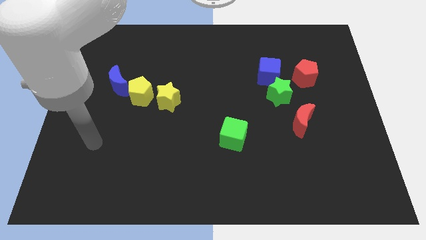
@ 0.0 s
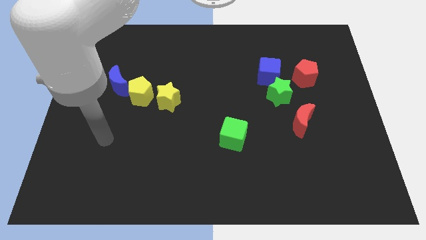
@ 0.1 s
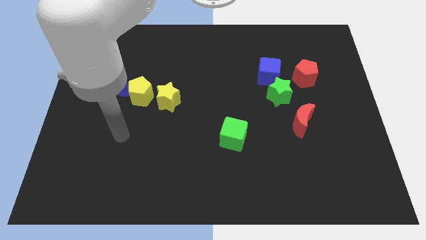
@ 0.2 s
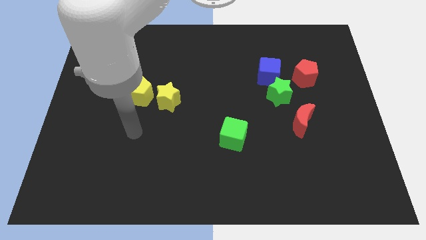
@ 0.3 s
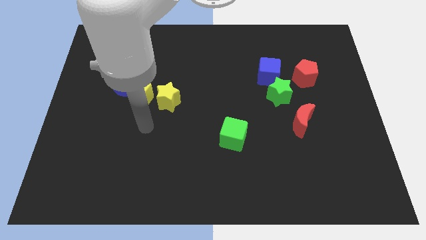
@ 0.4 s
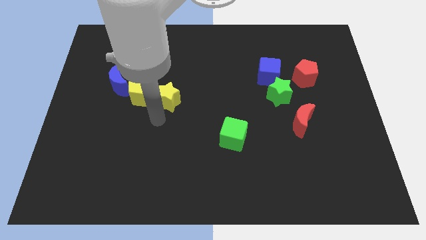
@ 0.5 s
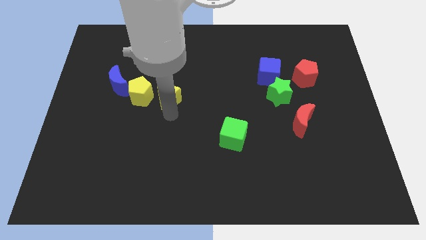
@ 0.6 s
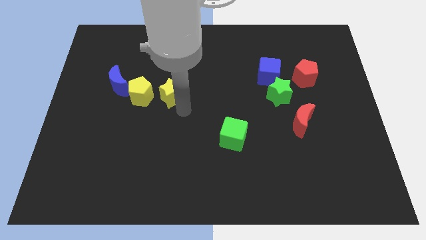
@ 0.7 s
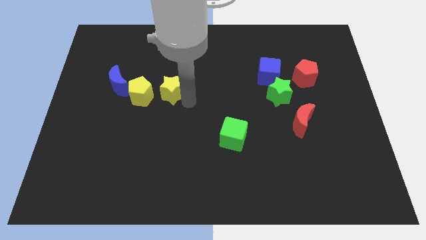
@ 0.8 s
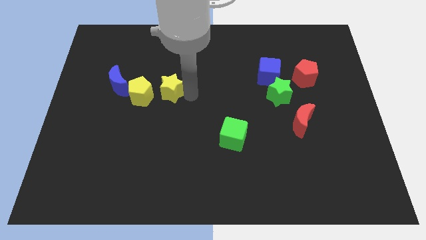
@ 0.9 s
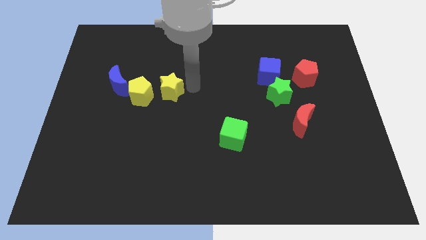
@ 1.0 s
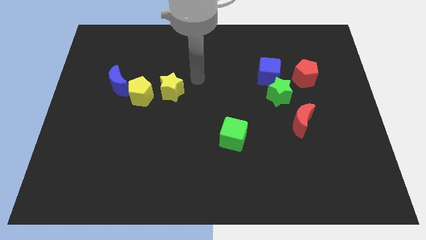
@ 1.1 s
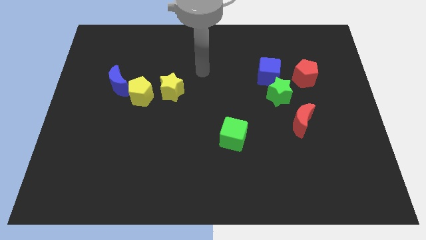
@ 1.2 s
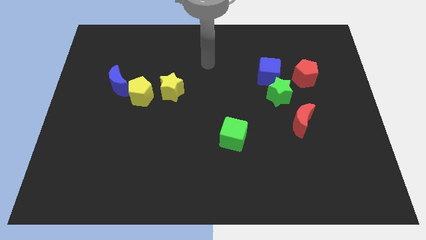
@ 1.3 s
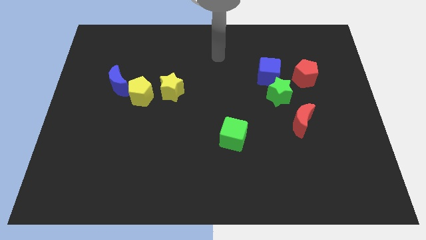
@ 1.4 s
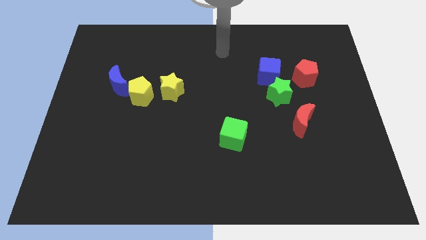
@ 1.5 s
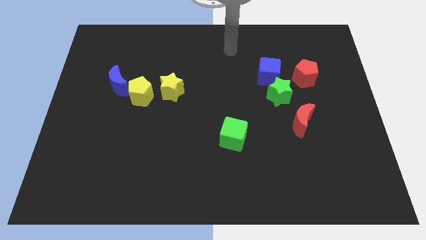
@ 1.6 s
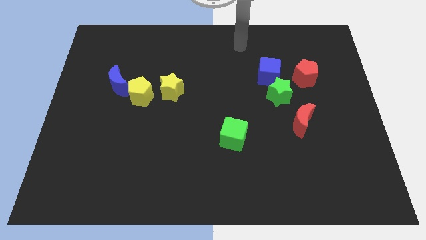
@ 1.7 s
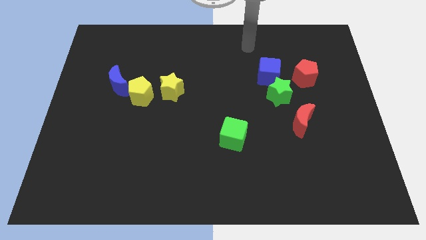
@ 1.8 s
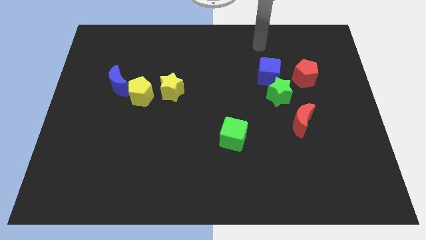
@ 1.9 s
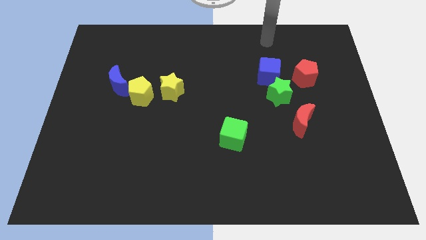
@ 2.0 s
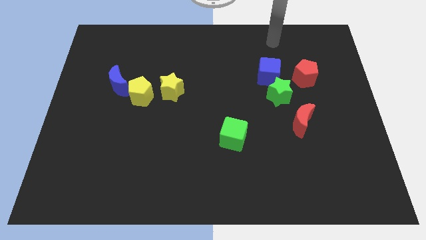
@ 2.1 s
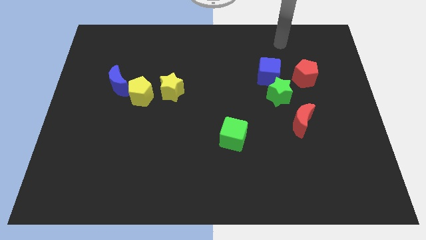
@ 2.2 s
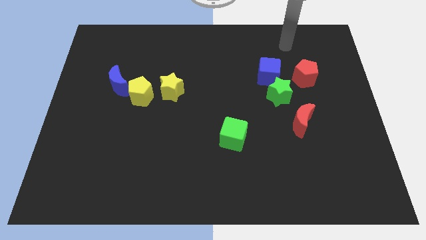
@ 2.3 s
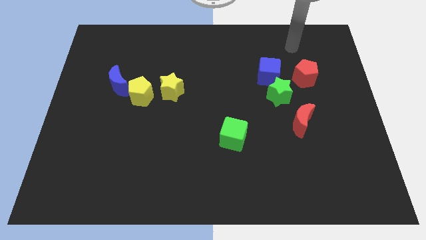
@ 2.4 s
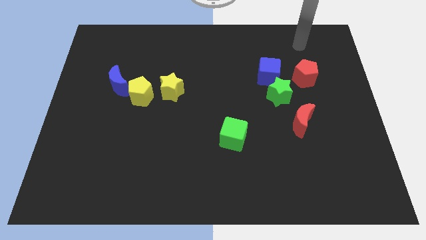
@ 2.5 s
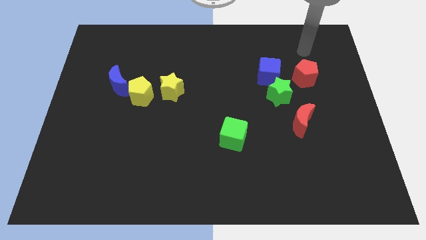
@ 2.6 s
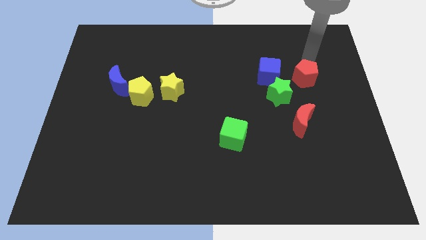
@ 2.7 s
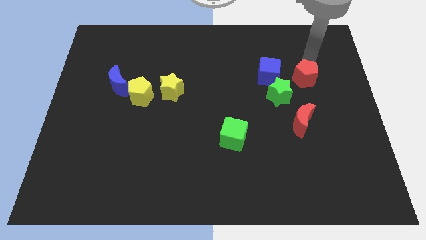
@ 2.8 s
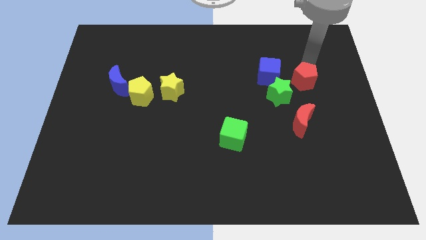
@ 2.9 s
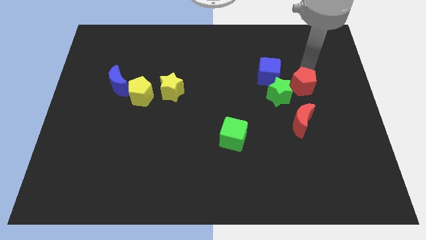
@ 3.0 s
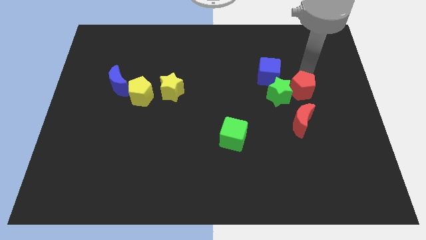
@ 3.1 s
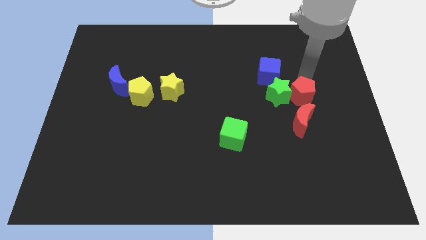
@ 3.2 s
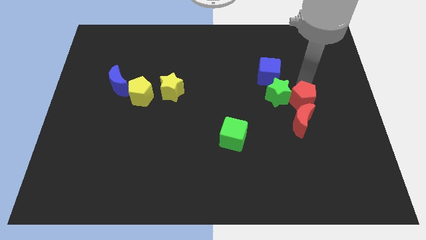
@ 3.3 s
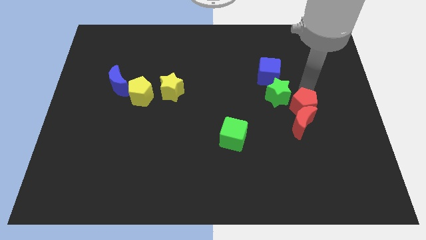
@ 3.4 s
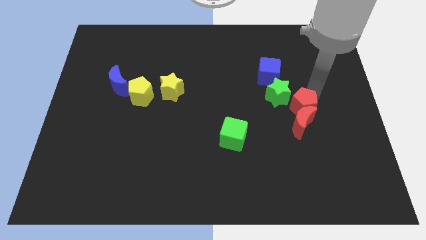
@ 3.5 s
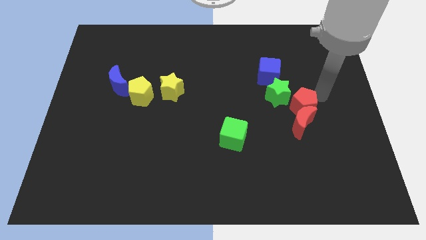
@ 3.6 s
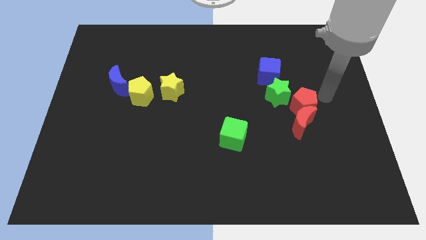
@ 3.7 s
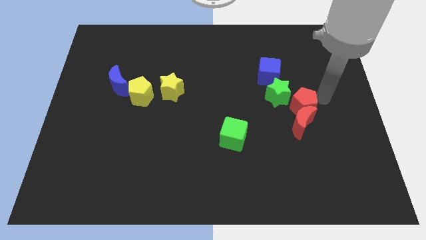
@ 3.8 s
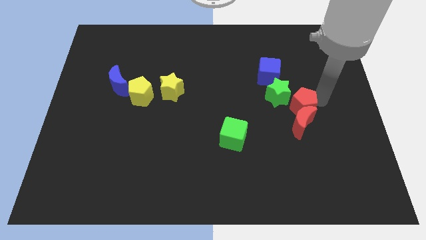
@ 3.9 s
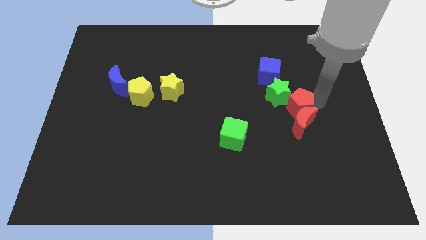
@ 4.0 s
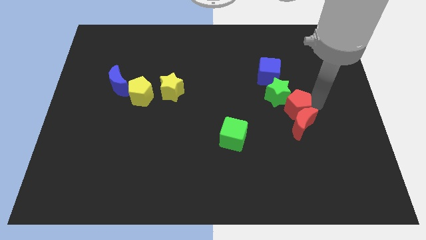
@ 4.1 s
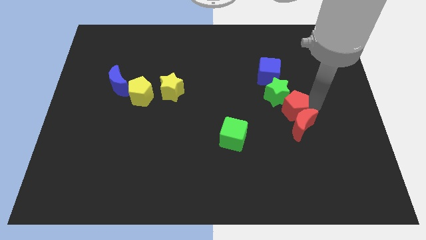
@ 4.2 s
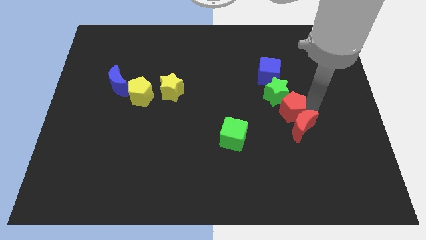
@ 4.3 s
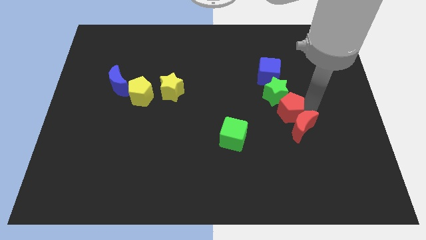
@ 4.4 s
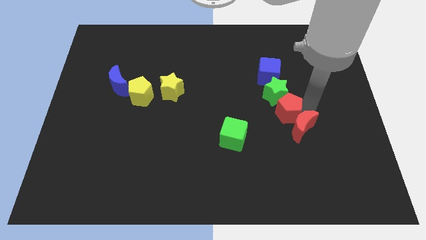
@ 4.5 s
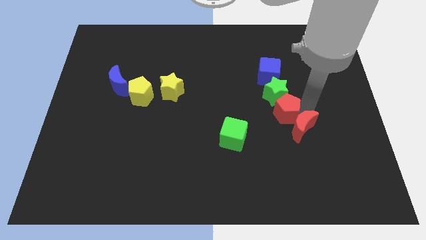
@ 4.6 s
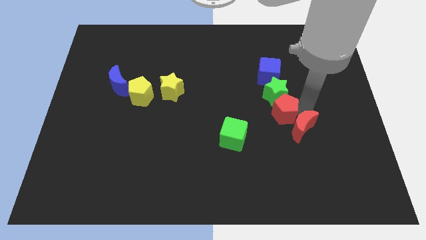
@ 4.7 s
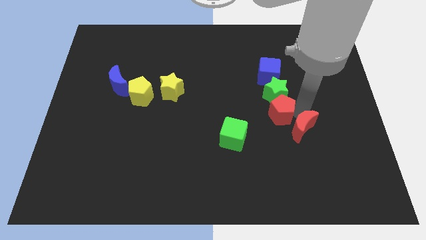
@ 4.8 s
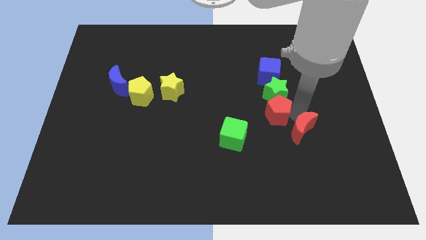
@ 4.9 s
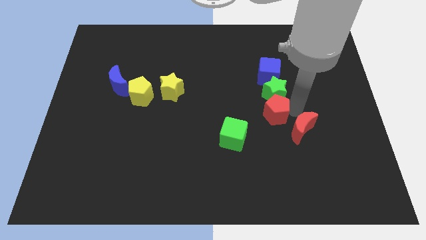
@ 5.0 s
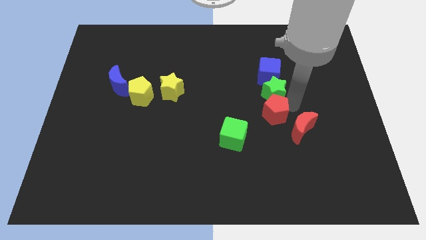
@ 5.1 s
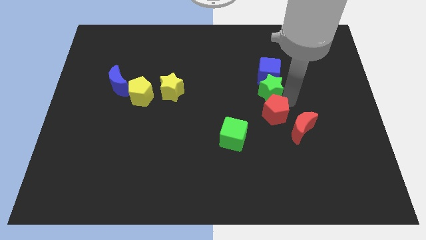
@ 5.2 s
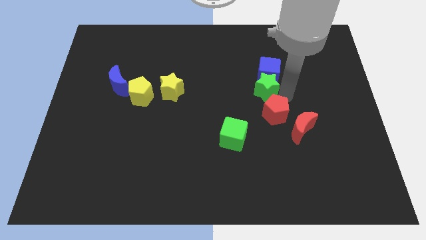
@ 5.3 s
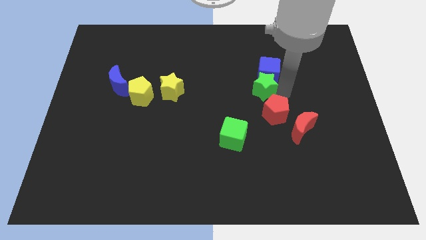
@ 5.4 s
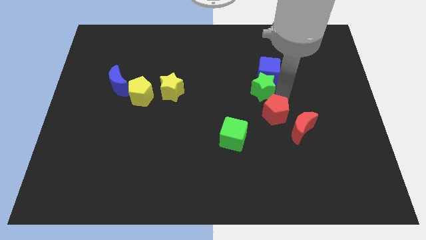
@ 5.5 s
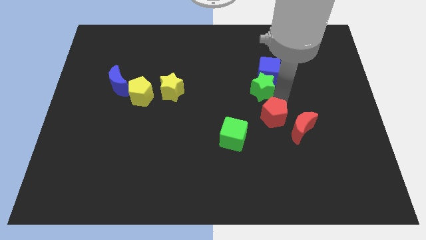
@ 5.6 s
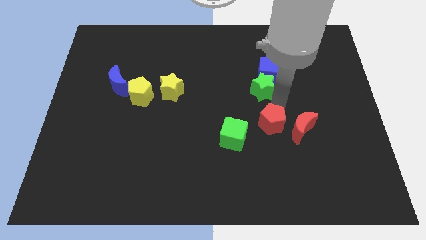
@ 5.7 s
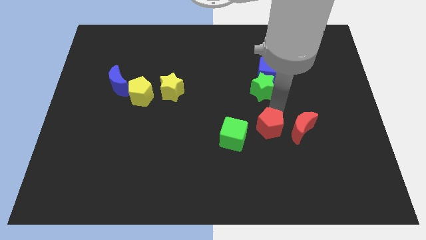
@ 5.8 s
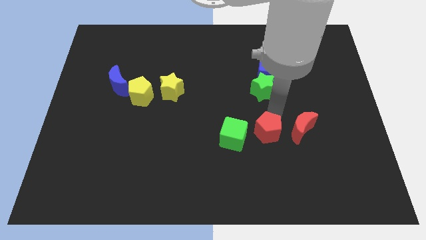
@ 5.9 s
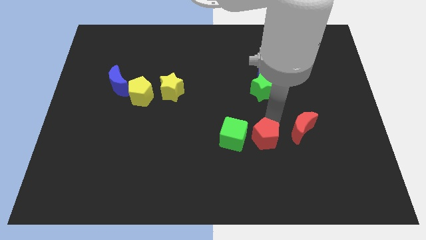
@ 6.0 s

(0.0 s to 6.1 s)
move the red pentagon diagonally down and left

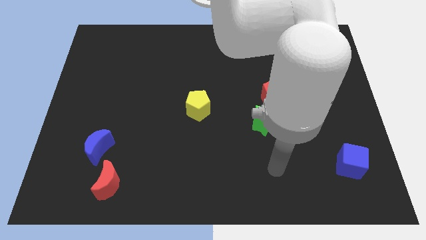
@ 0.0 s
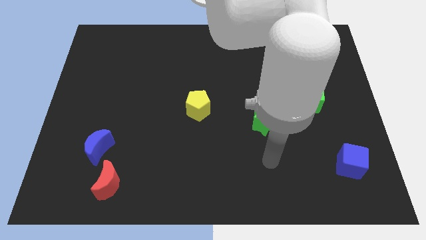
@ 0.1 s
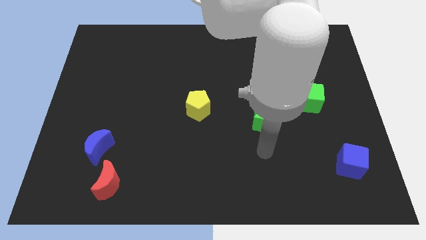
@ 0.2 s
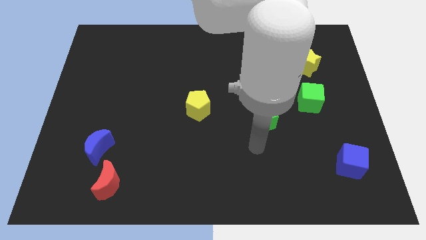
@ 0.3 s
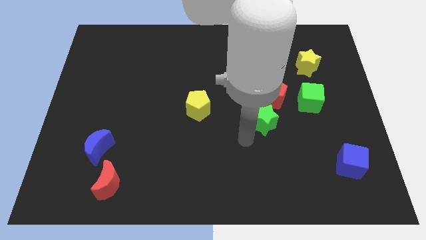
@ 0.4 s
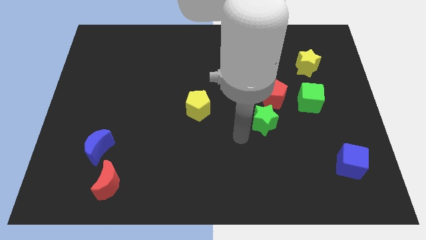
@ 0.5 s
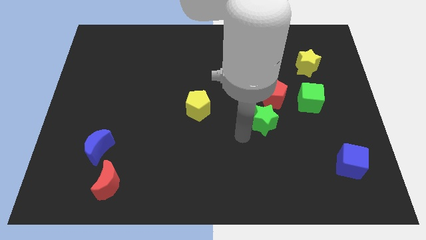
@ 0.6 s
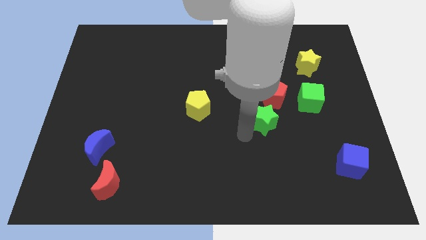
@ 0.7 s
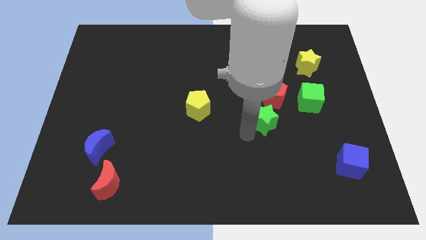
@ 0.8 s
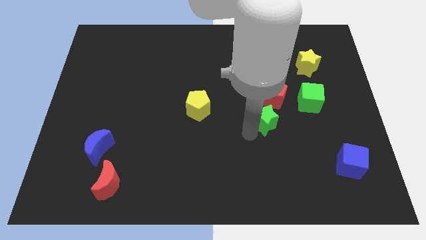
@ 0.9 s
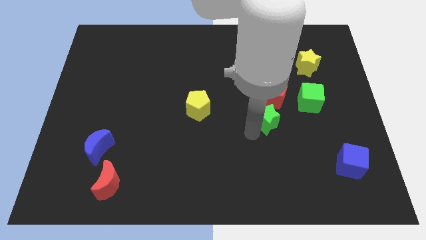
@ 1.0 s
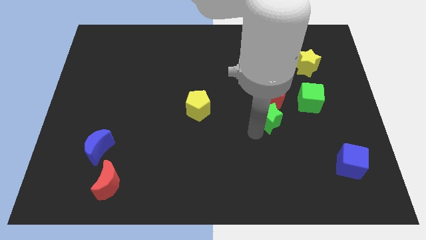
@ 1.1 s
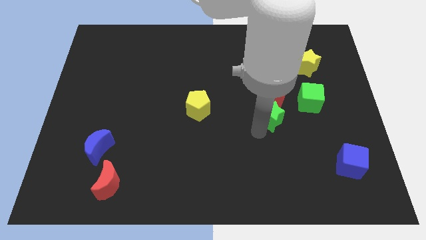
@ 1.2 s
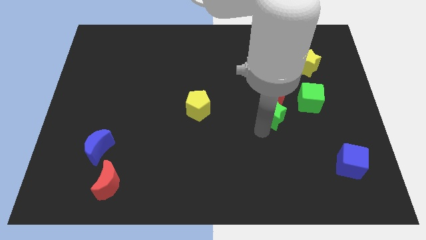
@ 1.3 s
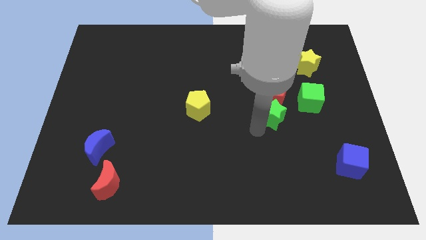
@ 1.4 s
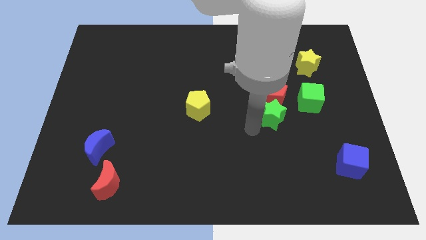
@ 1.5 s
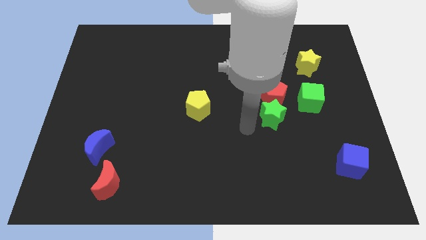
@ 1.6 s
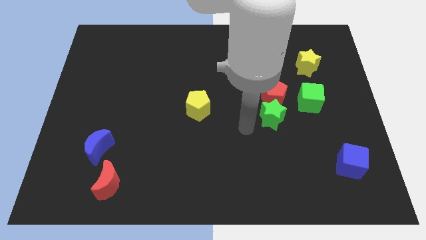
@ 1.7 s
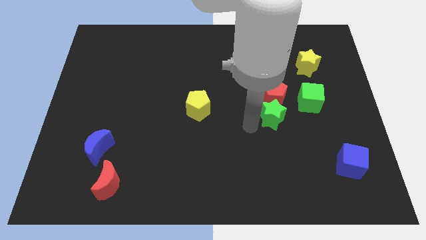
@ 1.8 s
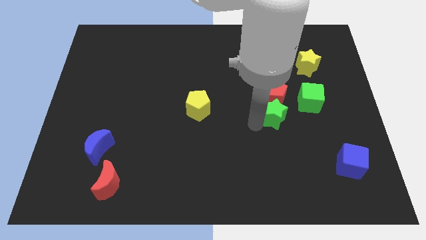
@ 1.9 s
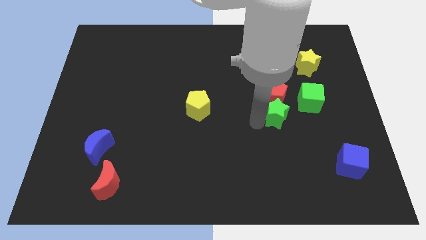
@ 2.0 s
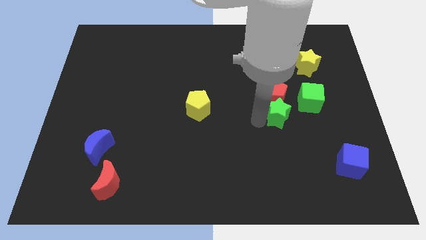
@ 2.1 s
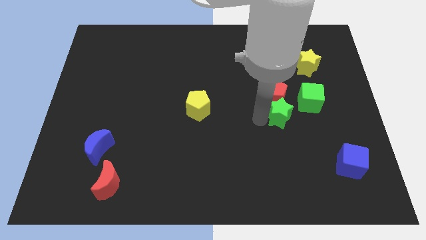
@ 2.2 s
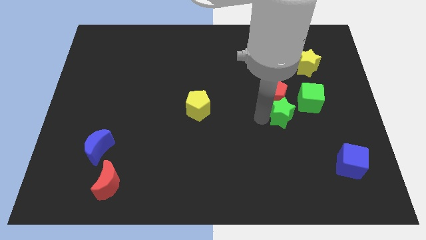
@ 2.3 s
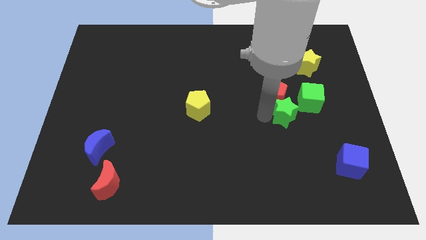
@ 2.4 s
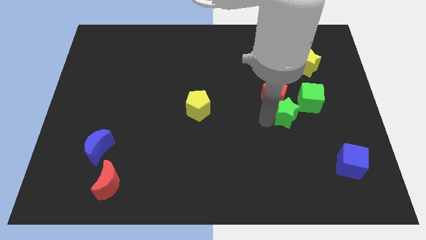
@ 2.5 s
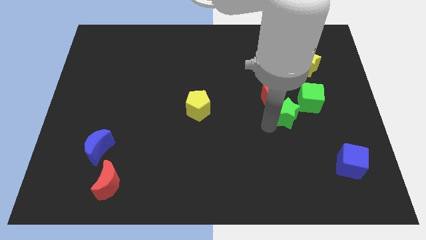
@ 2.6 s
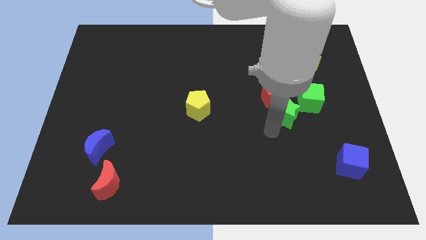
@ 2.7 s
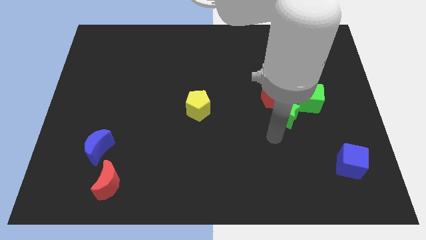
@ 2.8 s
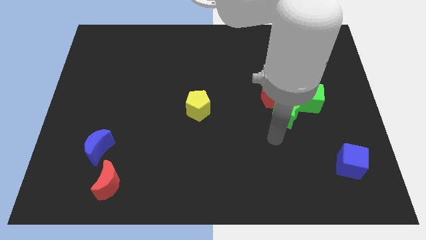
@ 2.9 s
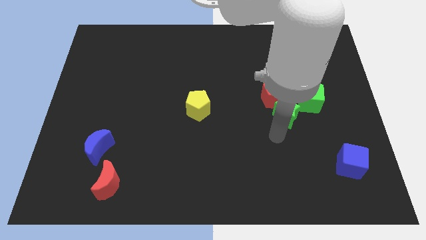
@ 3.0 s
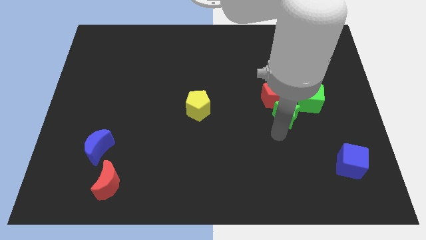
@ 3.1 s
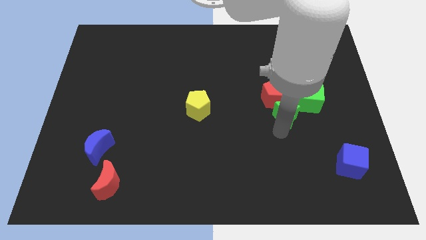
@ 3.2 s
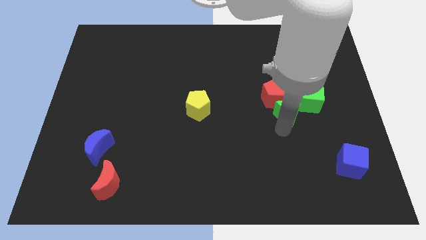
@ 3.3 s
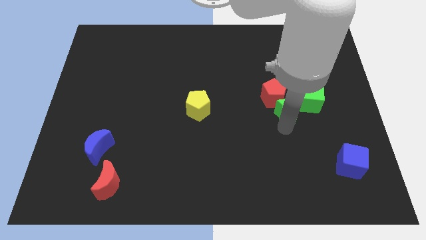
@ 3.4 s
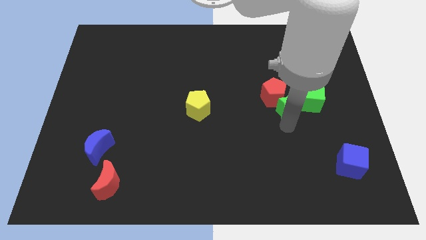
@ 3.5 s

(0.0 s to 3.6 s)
move the green star upwards and then right slightly
